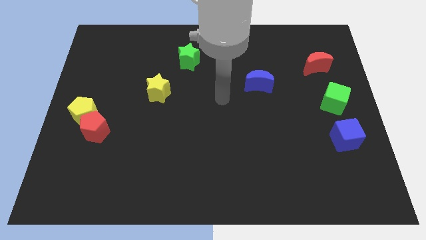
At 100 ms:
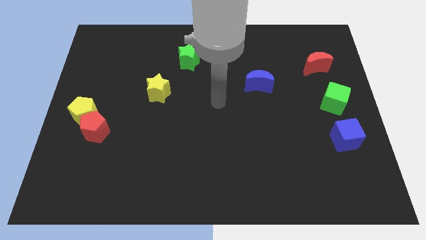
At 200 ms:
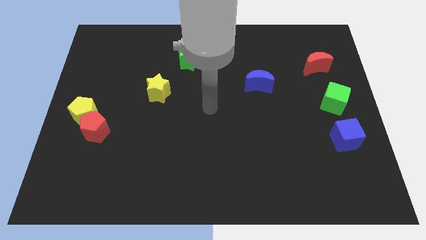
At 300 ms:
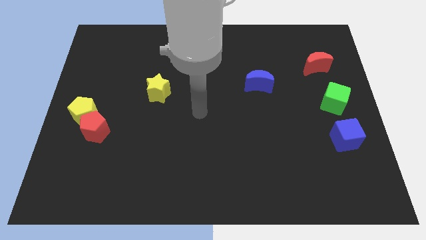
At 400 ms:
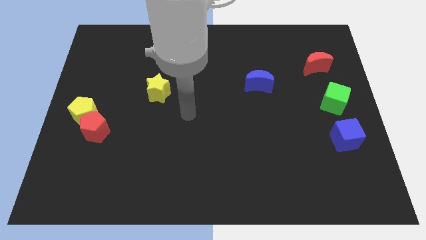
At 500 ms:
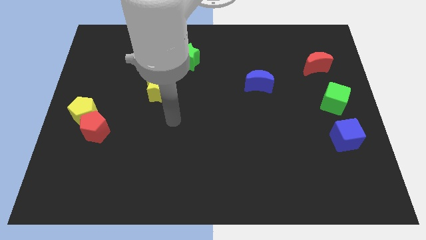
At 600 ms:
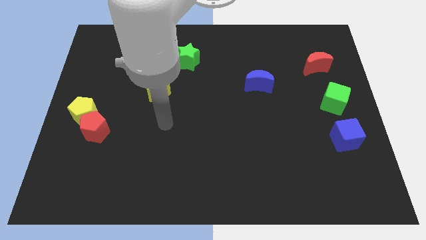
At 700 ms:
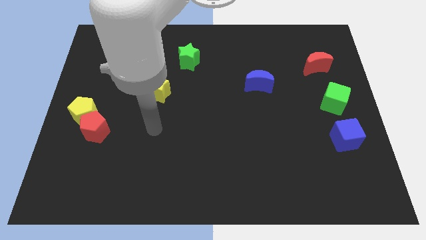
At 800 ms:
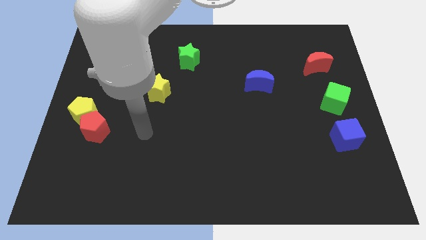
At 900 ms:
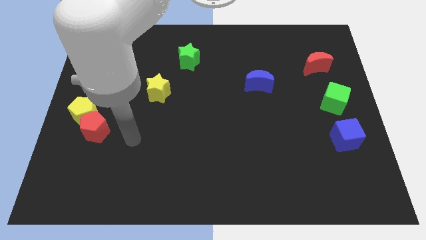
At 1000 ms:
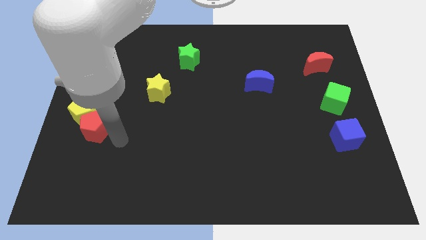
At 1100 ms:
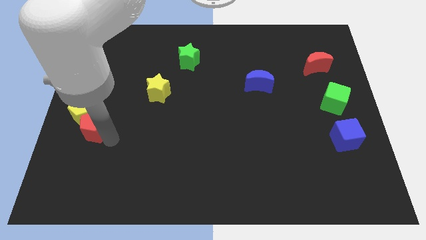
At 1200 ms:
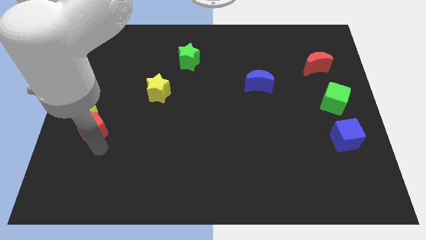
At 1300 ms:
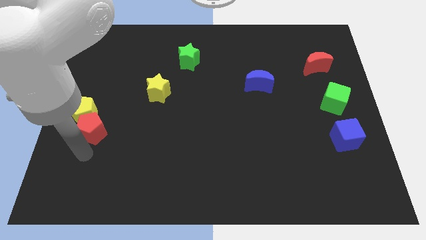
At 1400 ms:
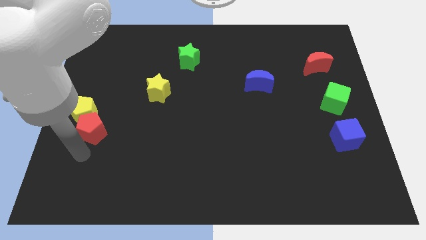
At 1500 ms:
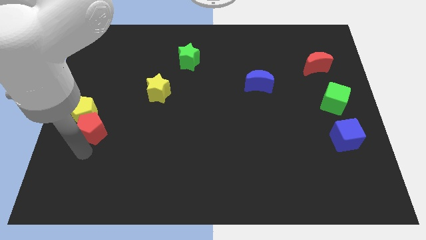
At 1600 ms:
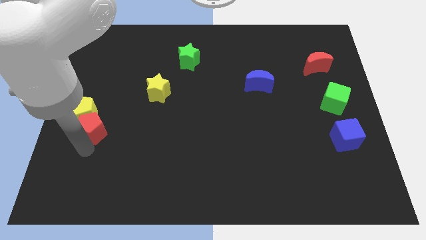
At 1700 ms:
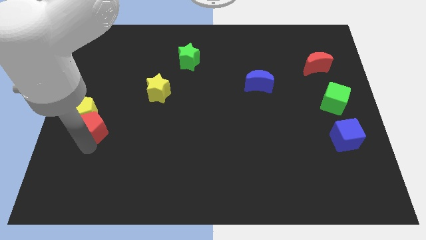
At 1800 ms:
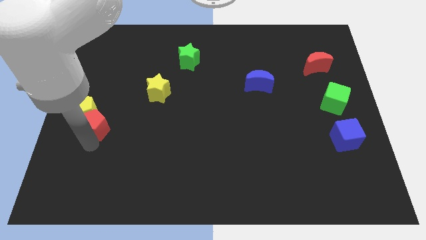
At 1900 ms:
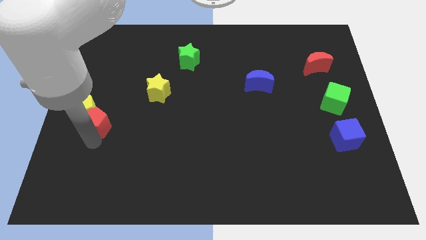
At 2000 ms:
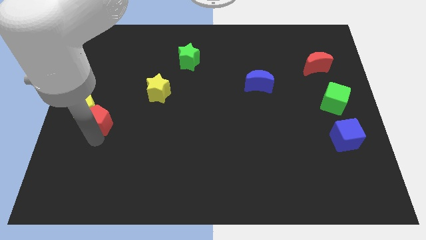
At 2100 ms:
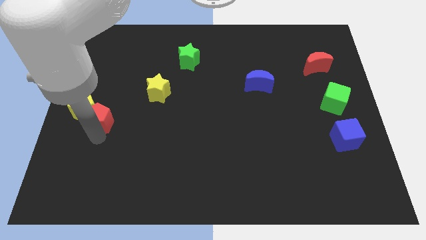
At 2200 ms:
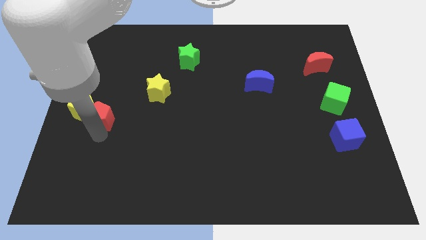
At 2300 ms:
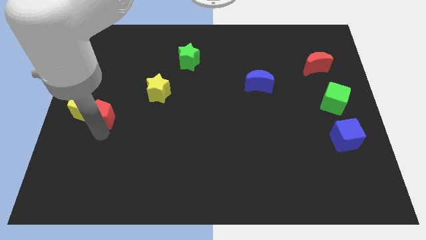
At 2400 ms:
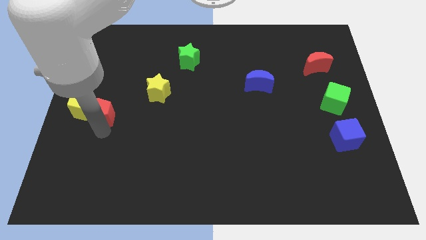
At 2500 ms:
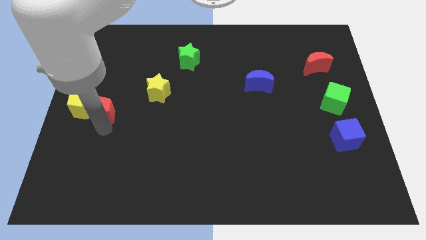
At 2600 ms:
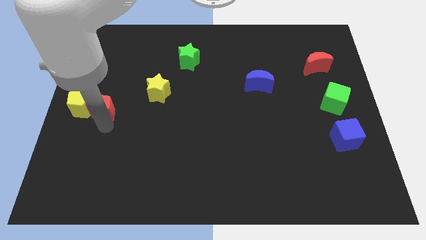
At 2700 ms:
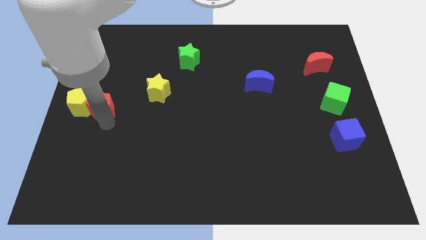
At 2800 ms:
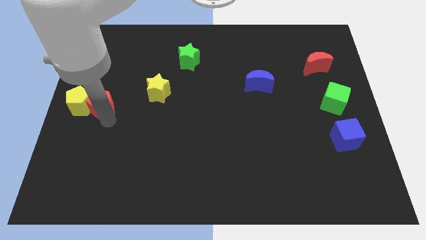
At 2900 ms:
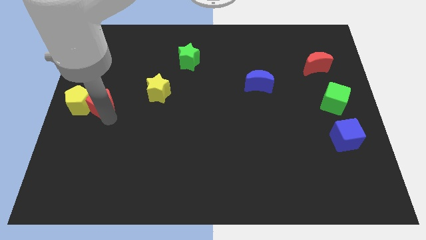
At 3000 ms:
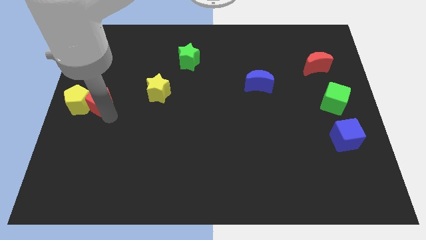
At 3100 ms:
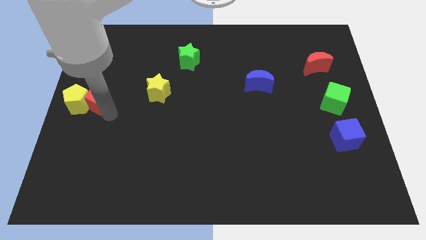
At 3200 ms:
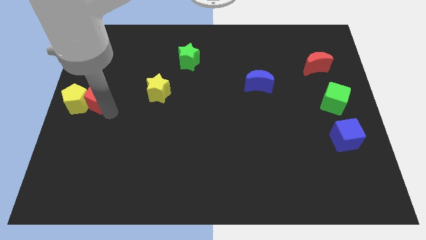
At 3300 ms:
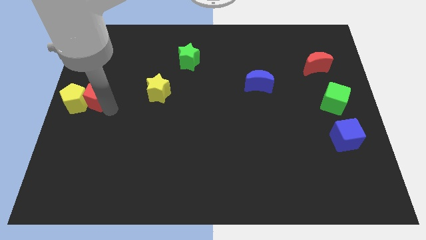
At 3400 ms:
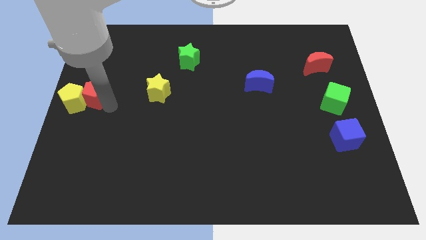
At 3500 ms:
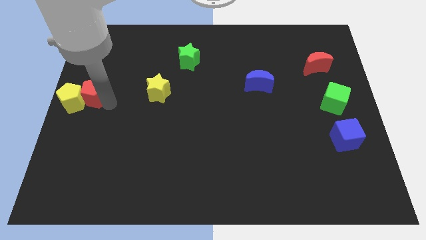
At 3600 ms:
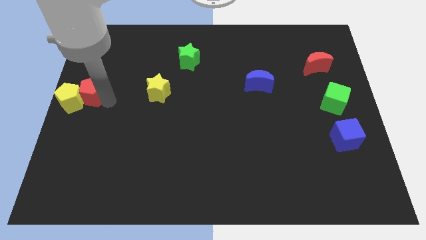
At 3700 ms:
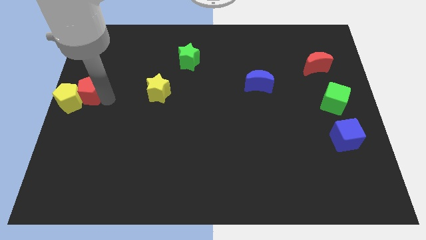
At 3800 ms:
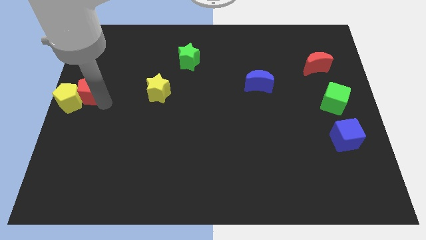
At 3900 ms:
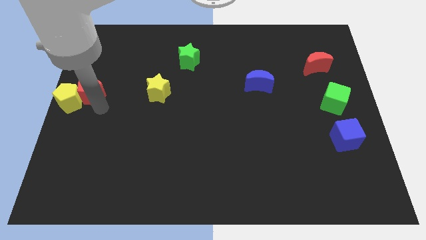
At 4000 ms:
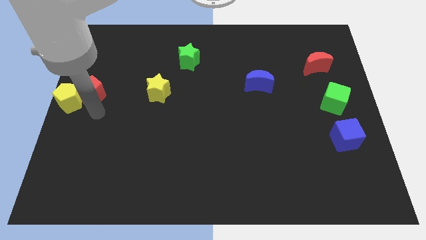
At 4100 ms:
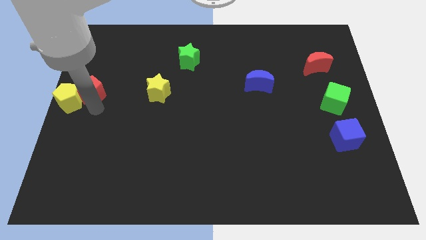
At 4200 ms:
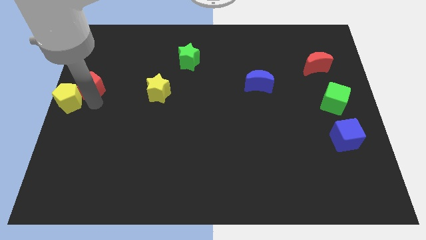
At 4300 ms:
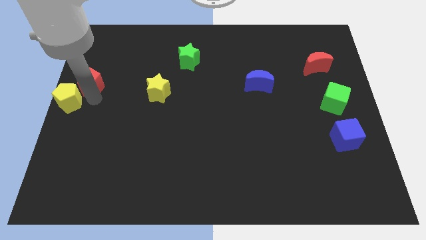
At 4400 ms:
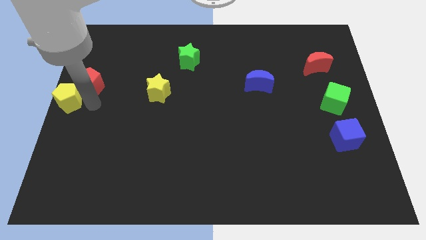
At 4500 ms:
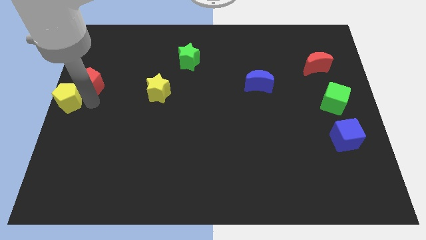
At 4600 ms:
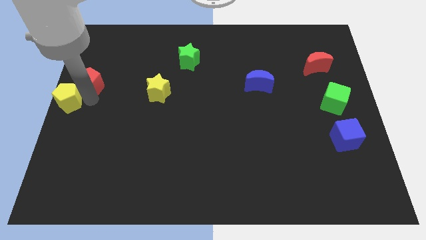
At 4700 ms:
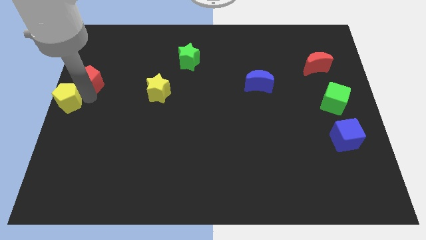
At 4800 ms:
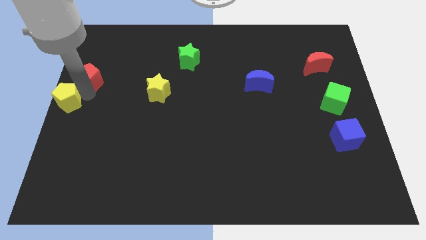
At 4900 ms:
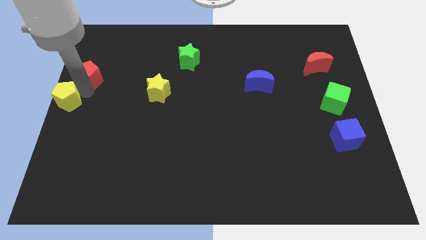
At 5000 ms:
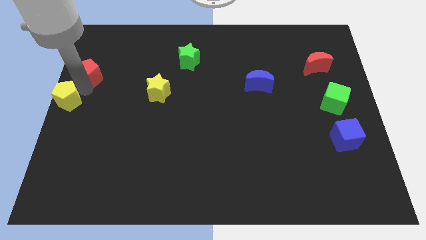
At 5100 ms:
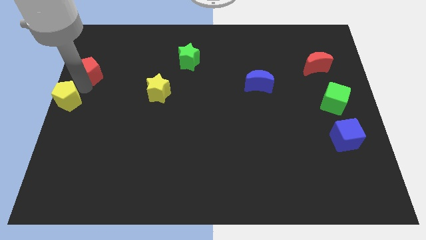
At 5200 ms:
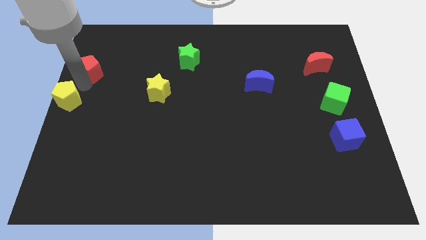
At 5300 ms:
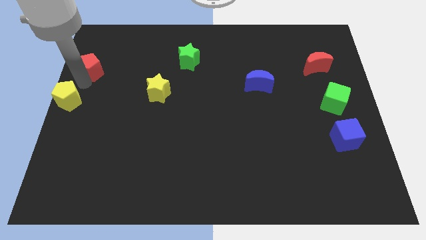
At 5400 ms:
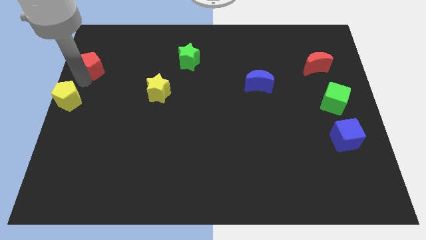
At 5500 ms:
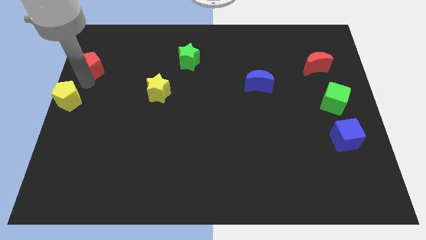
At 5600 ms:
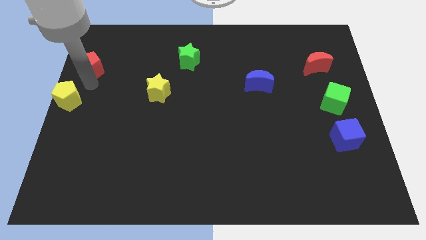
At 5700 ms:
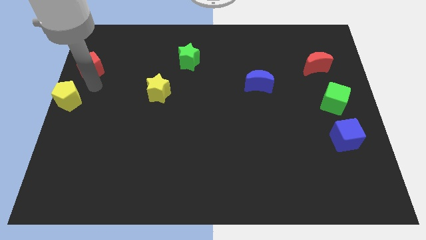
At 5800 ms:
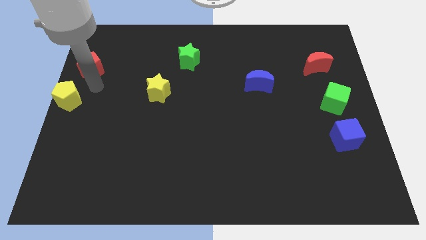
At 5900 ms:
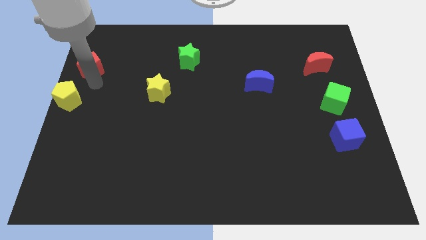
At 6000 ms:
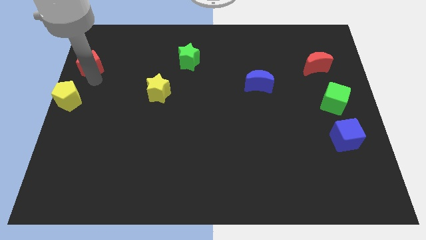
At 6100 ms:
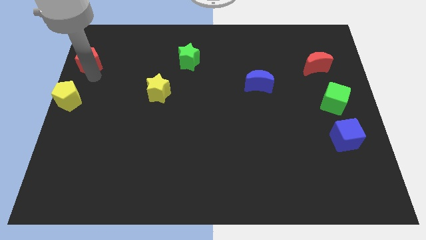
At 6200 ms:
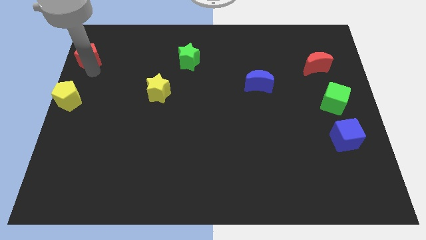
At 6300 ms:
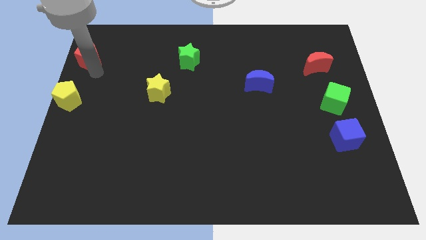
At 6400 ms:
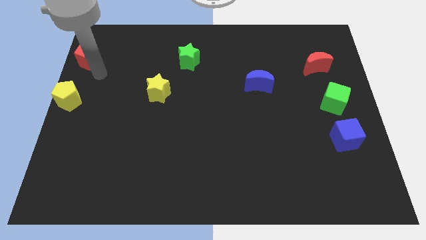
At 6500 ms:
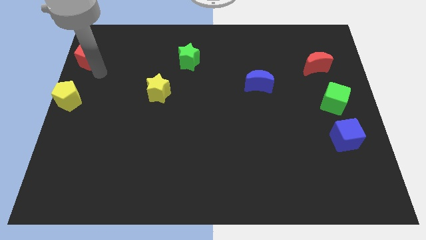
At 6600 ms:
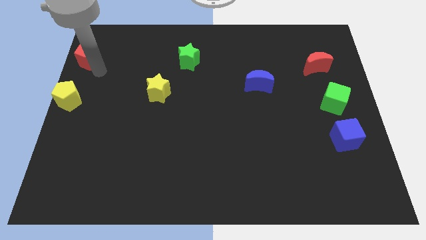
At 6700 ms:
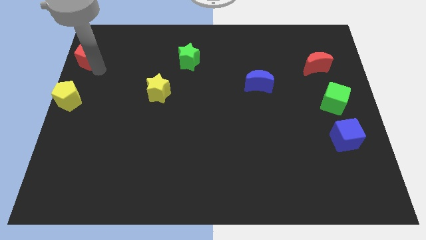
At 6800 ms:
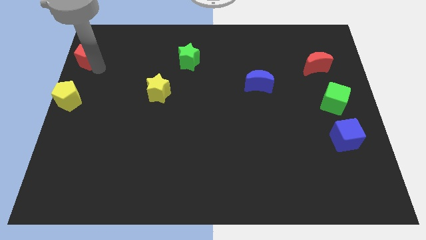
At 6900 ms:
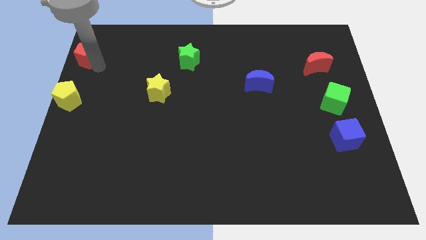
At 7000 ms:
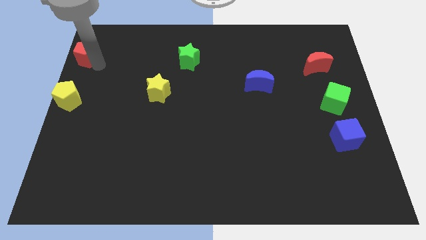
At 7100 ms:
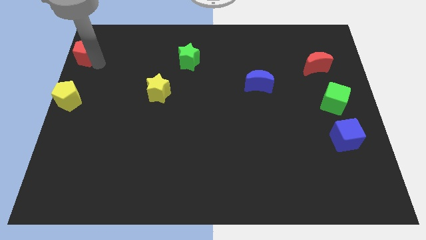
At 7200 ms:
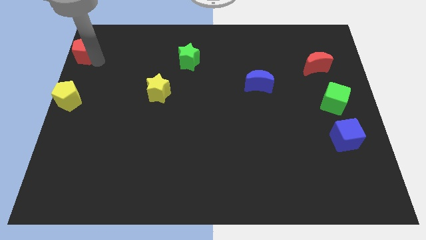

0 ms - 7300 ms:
slide the red pentagon to the upper left corner
